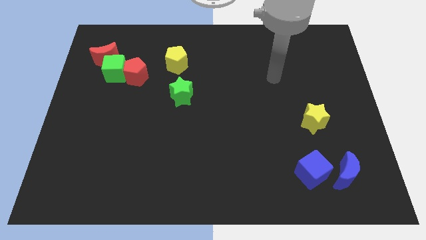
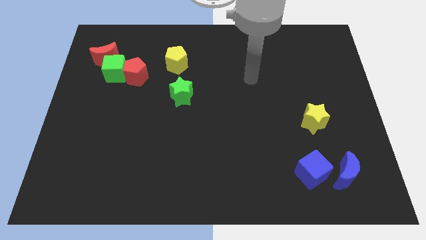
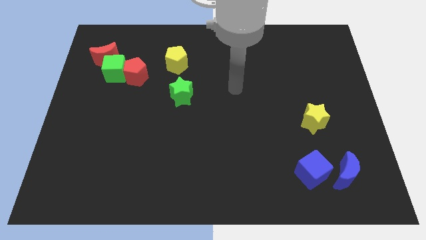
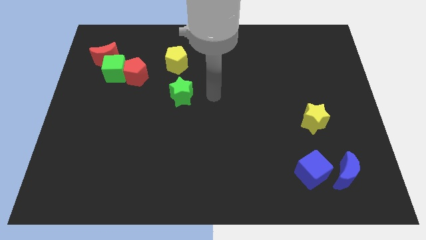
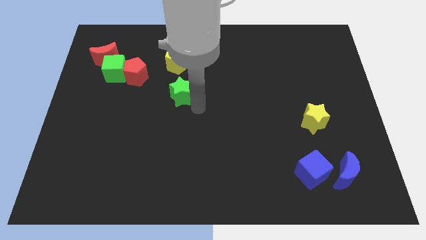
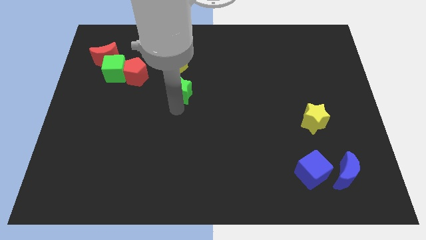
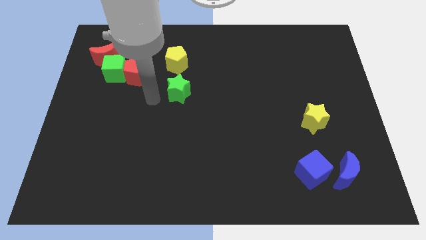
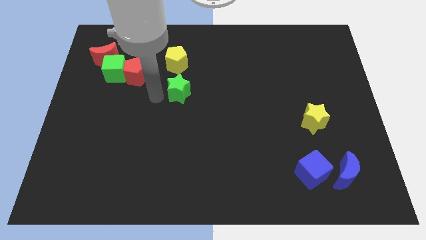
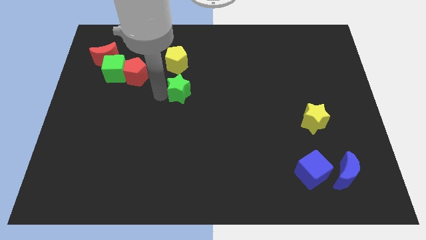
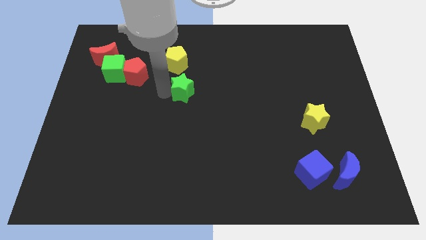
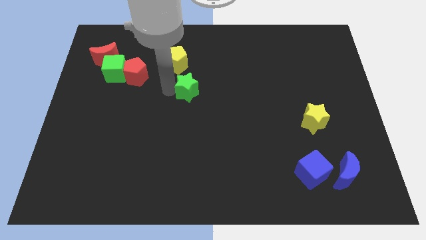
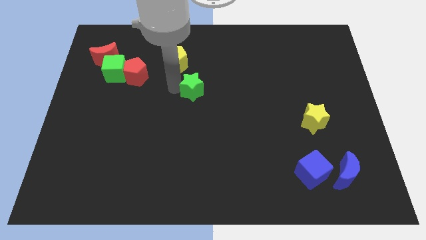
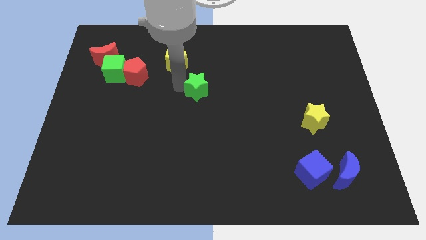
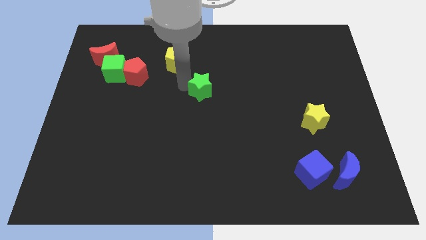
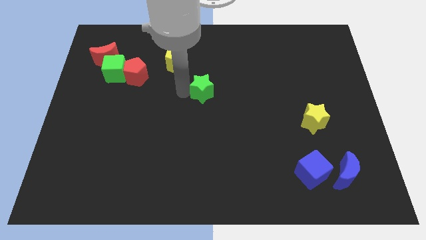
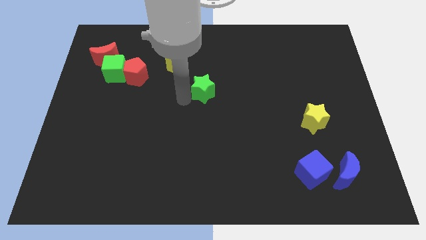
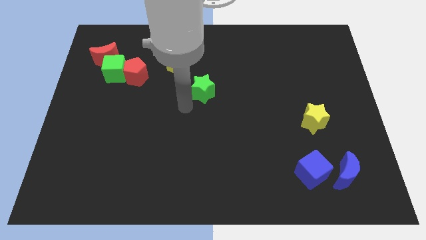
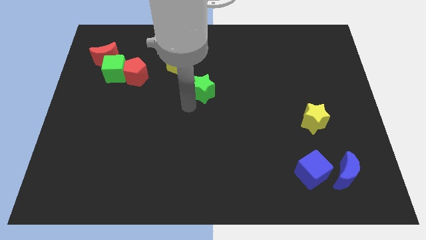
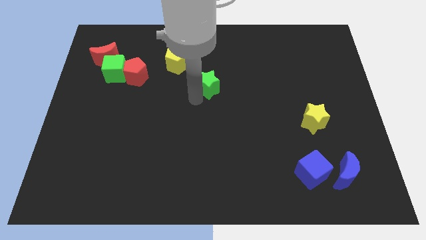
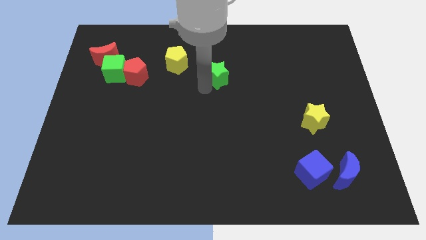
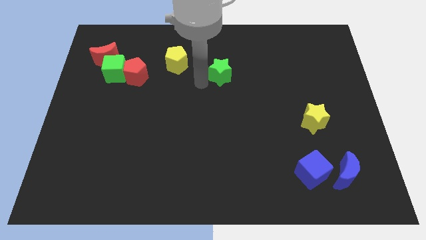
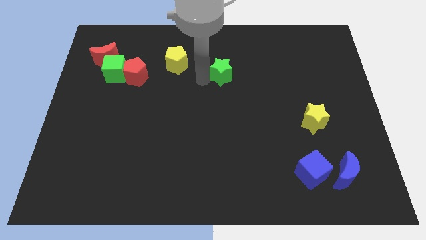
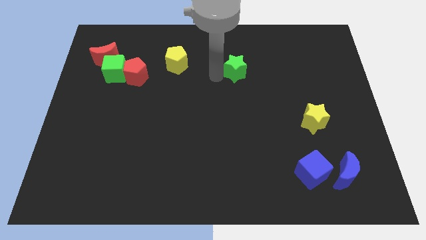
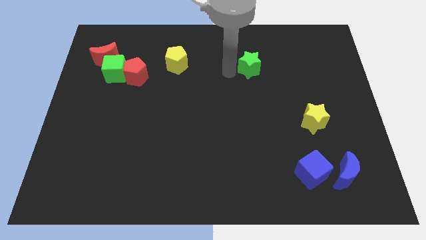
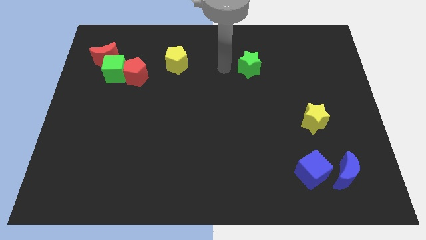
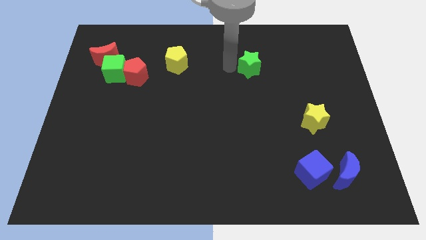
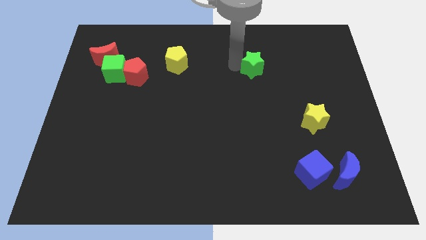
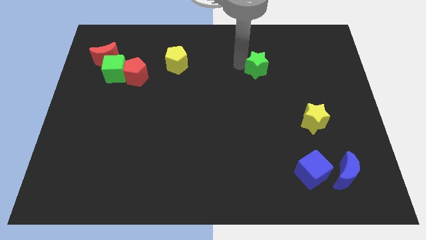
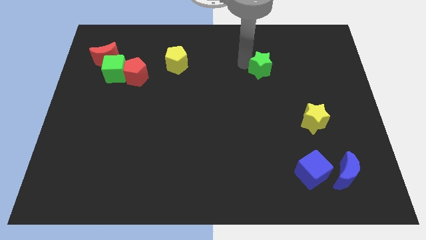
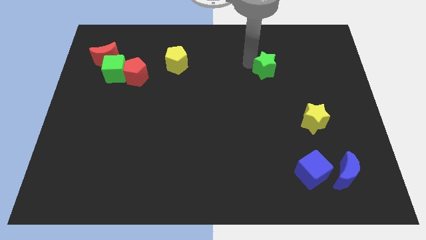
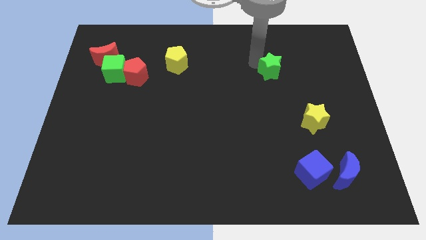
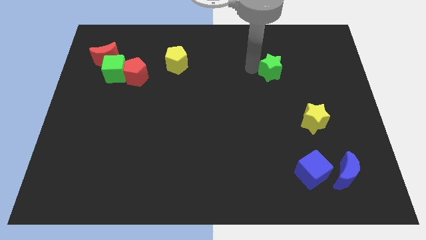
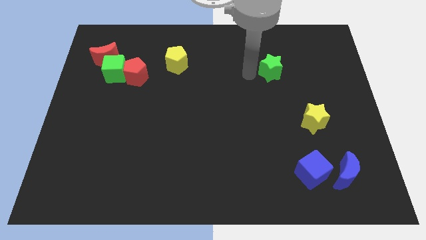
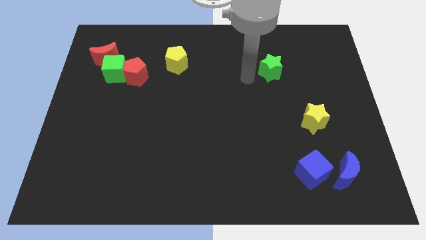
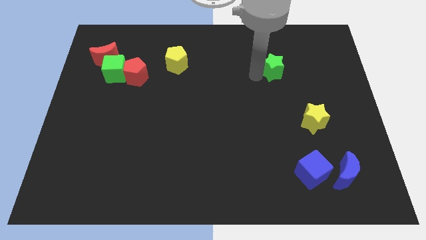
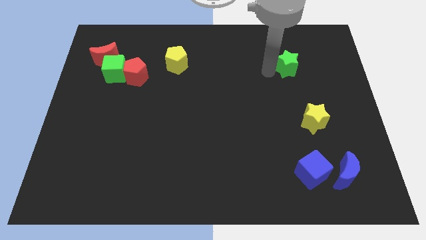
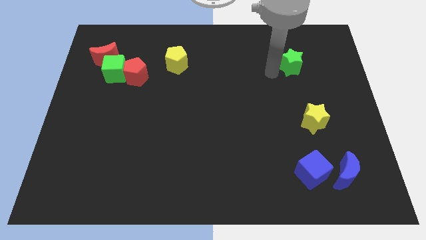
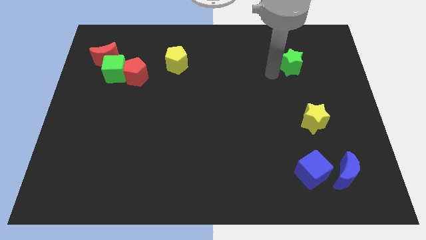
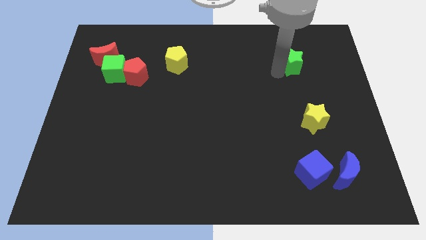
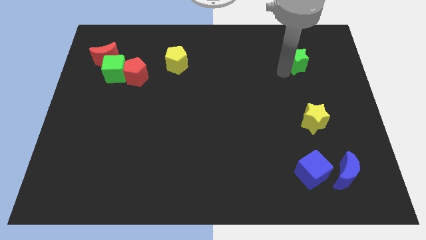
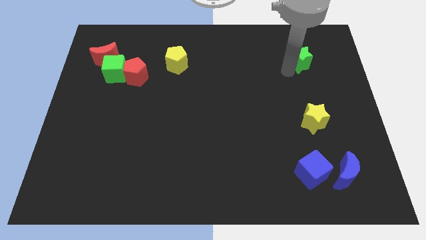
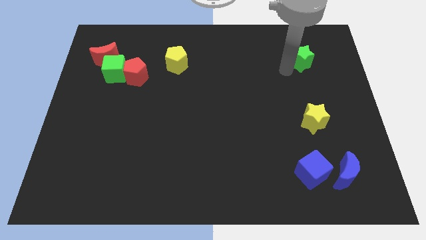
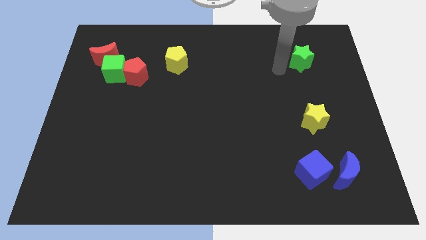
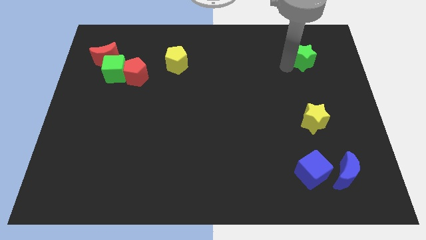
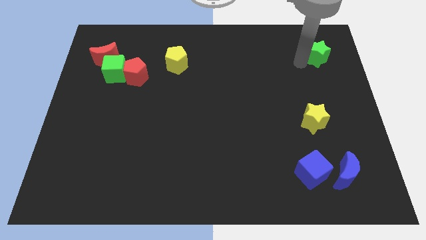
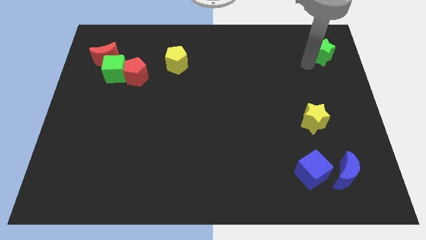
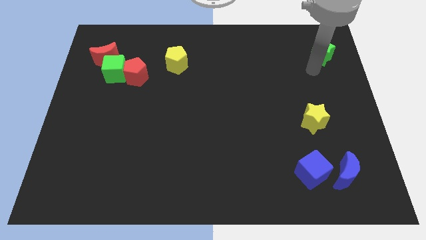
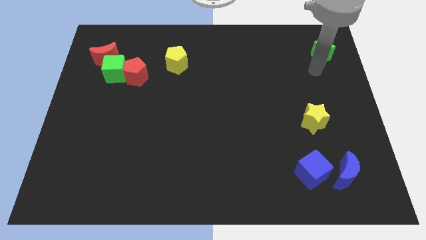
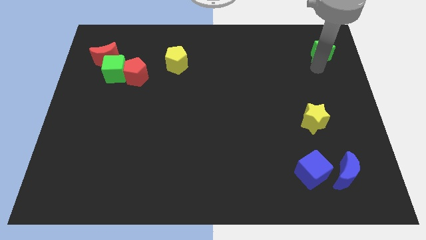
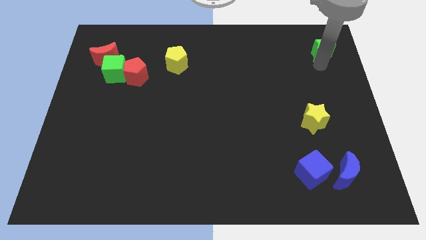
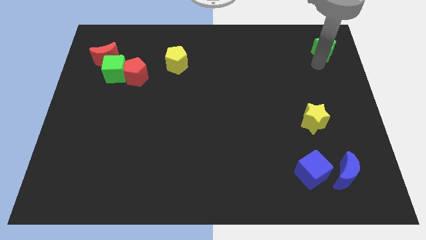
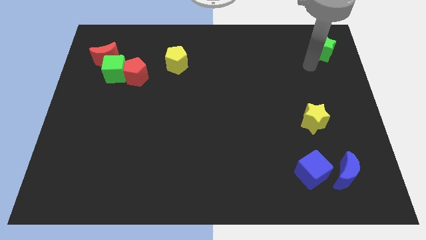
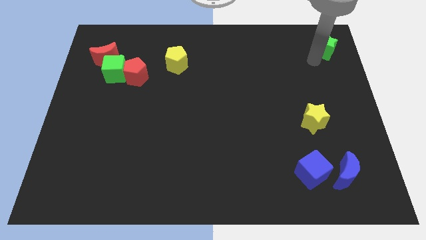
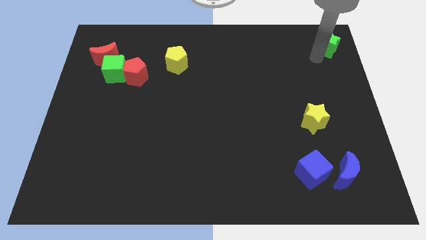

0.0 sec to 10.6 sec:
put the green star to the top right of the board

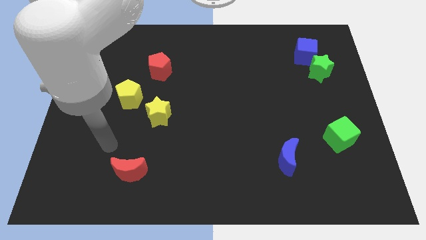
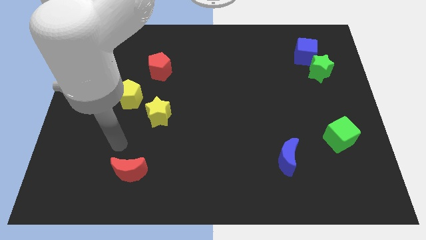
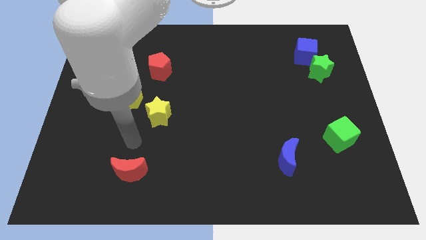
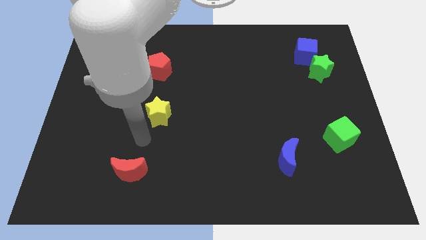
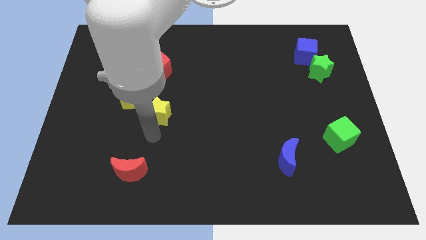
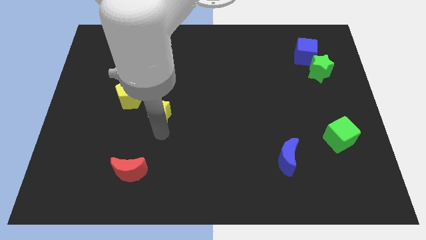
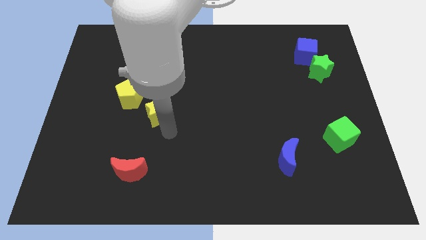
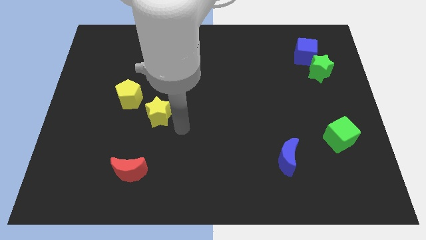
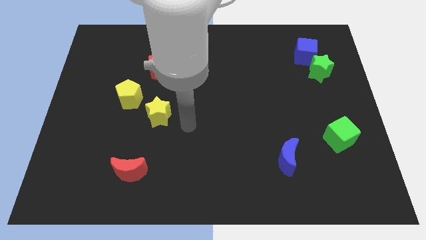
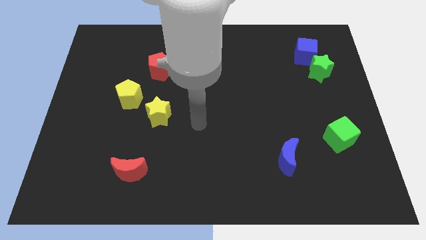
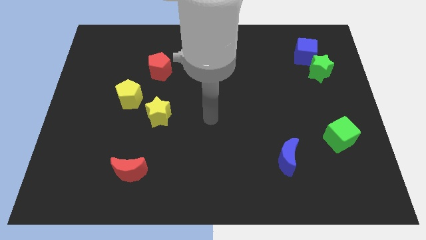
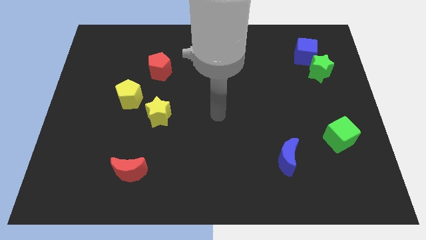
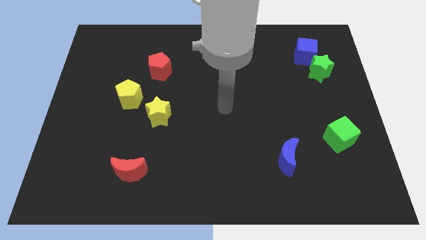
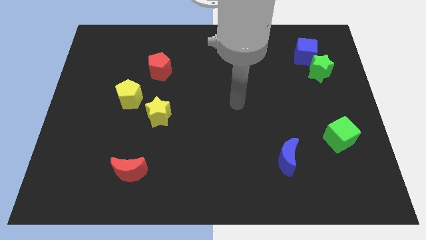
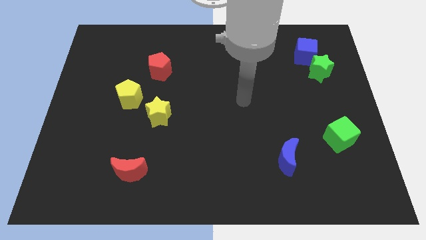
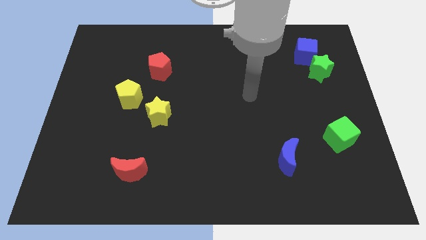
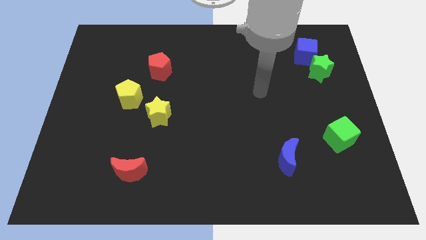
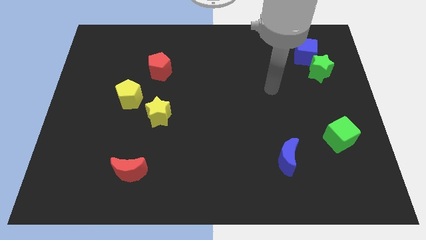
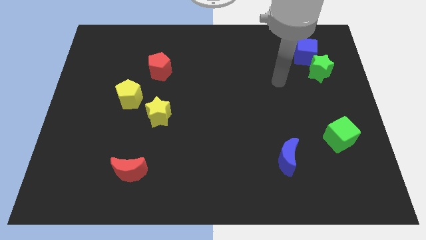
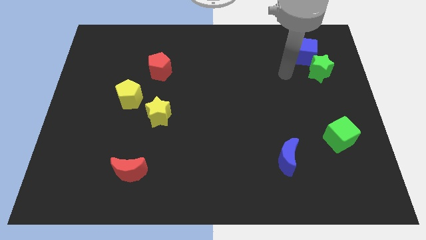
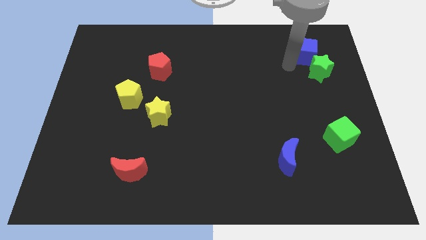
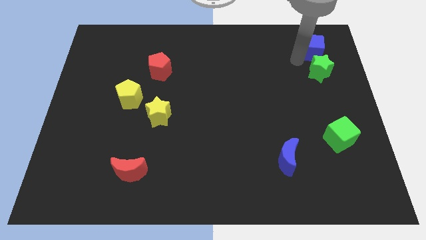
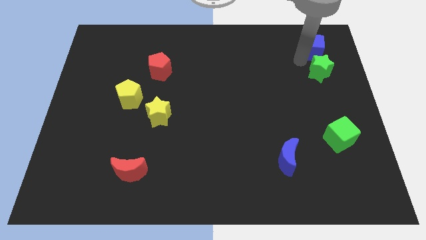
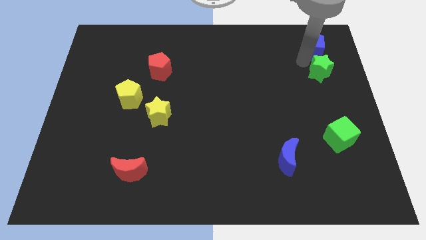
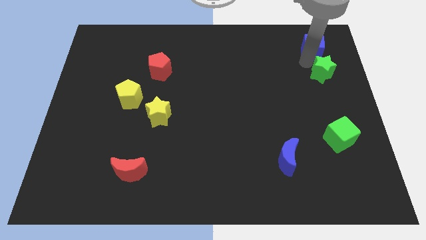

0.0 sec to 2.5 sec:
push the green star to the center right
